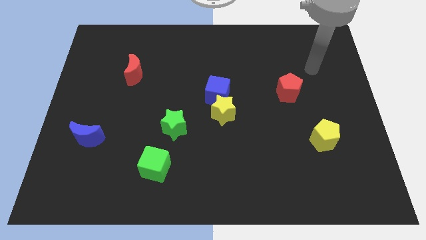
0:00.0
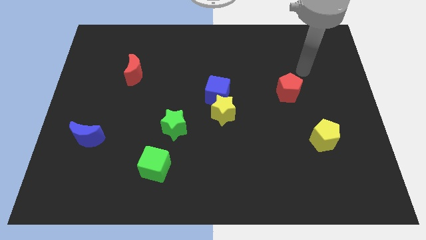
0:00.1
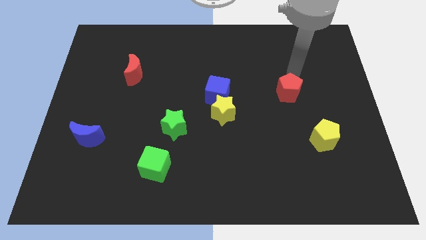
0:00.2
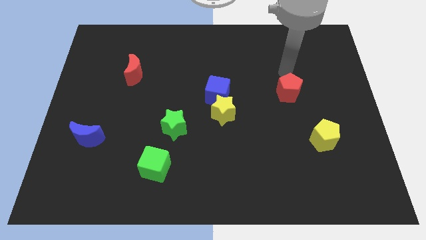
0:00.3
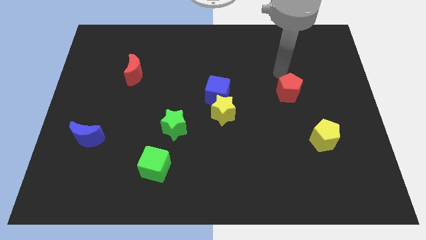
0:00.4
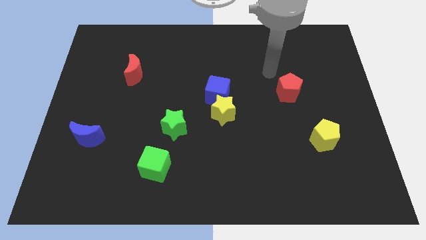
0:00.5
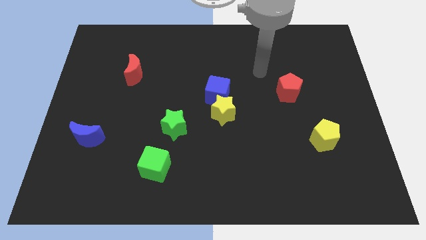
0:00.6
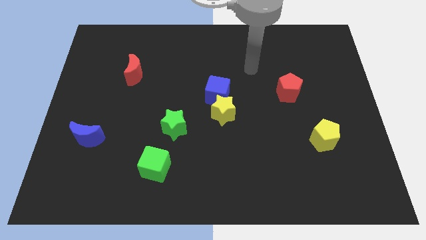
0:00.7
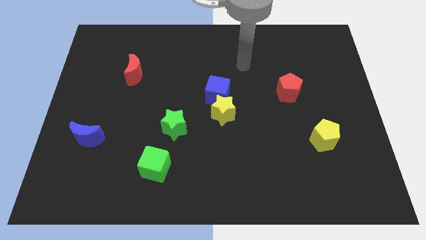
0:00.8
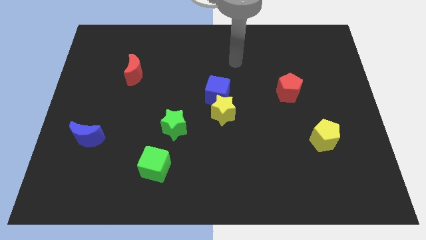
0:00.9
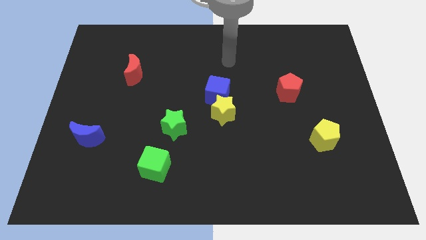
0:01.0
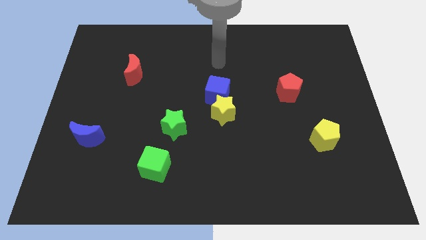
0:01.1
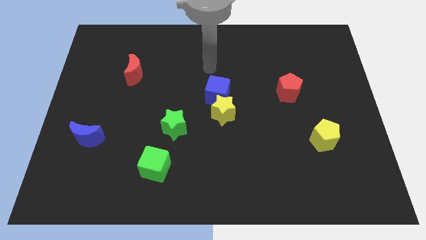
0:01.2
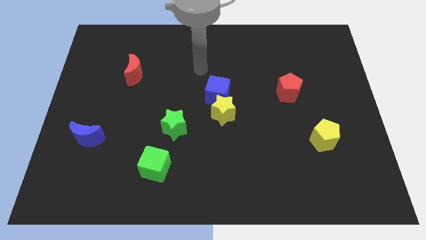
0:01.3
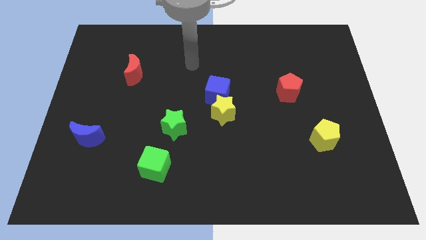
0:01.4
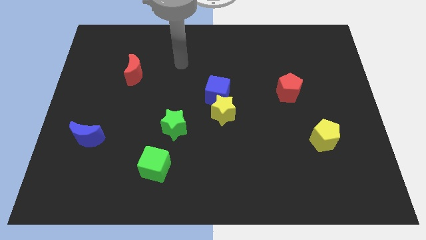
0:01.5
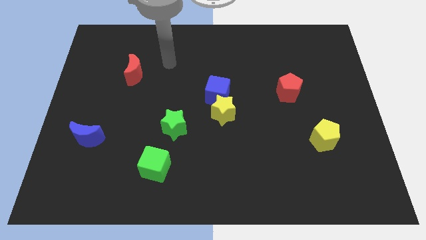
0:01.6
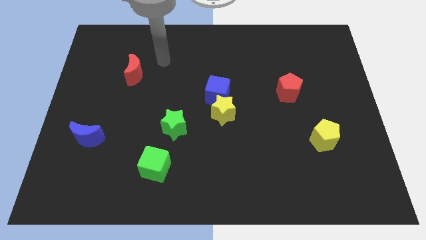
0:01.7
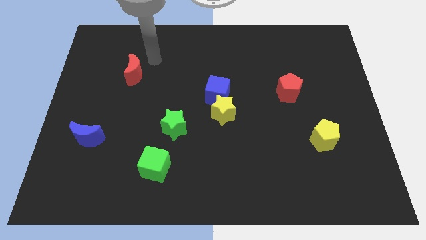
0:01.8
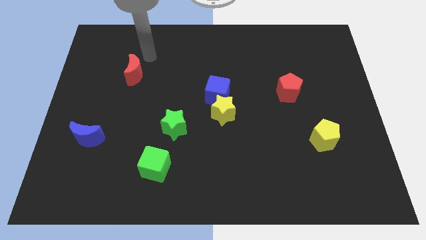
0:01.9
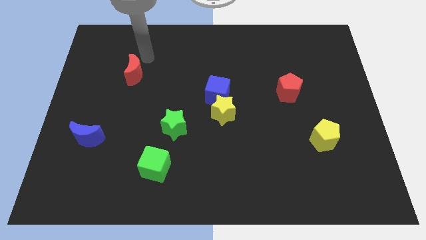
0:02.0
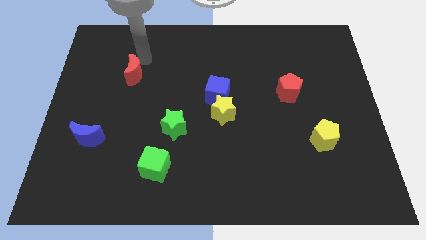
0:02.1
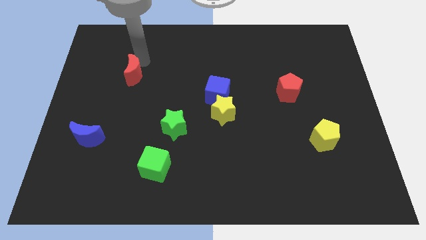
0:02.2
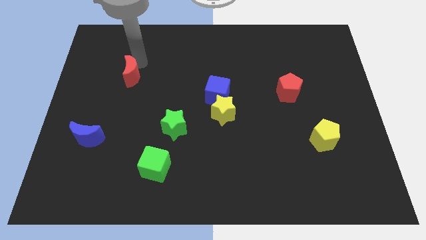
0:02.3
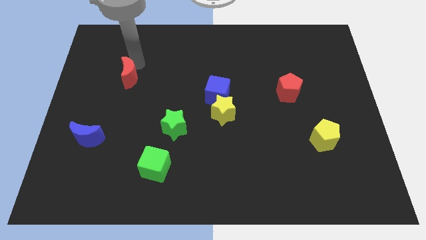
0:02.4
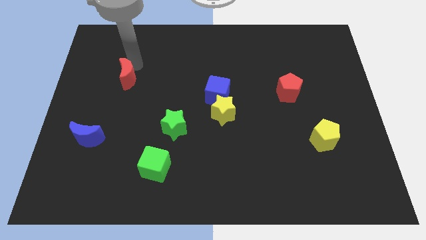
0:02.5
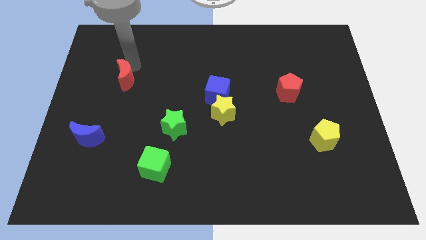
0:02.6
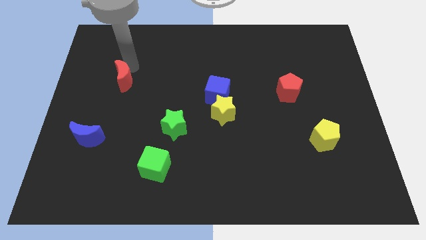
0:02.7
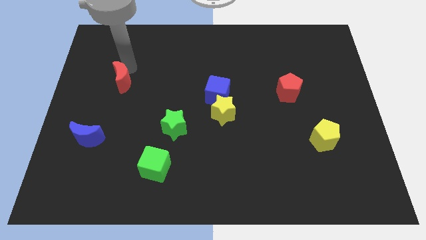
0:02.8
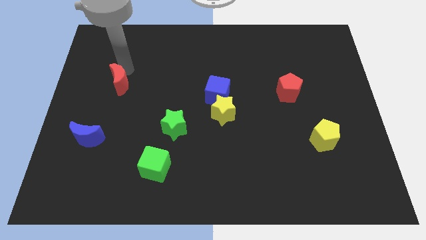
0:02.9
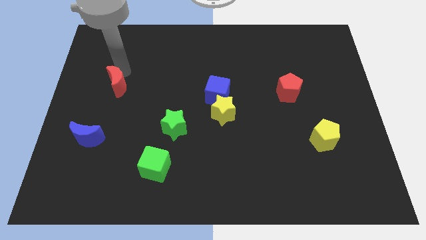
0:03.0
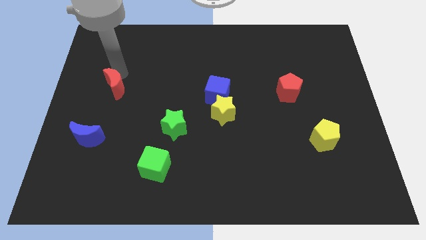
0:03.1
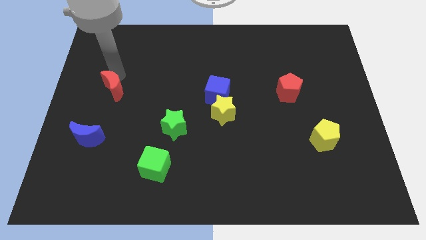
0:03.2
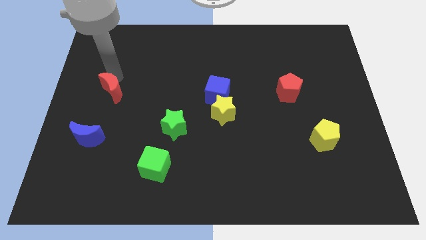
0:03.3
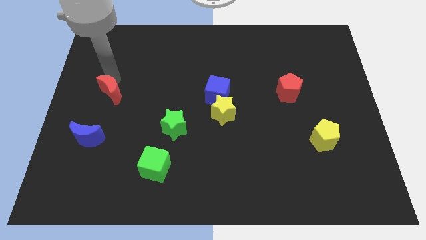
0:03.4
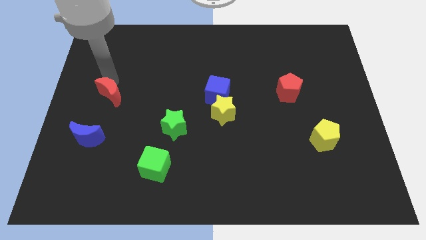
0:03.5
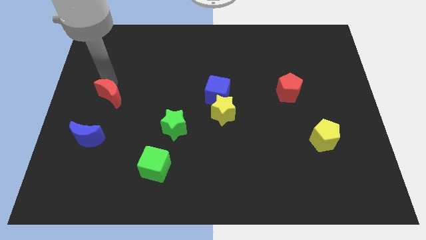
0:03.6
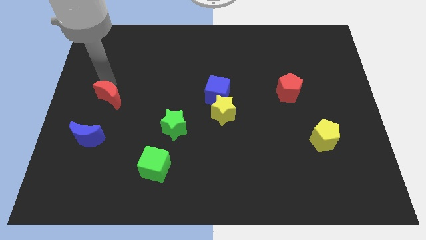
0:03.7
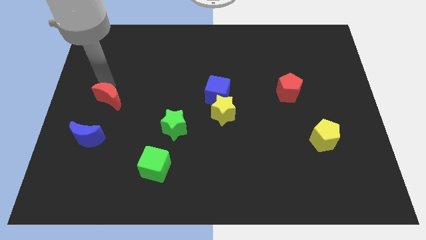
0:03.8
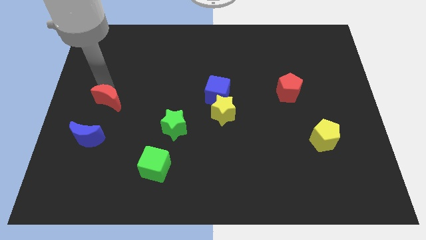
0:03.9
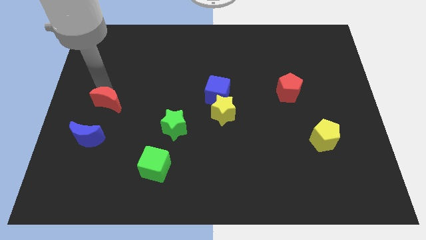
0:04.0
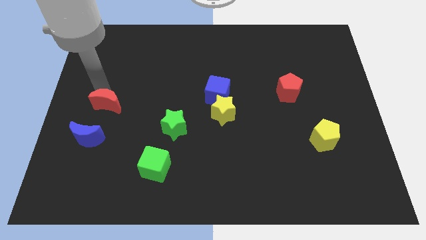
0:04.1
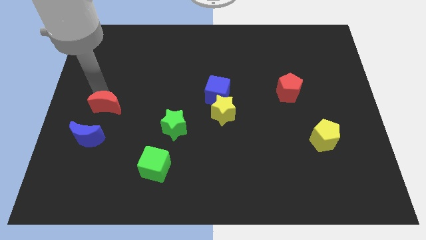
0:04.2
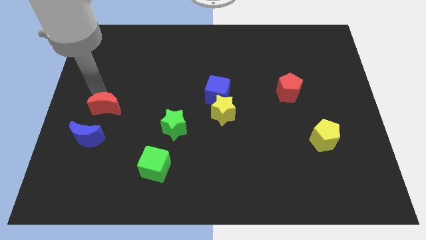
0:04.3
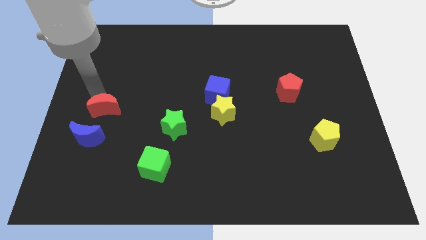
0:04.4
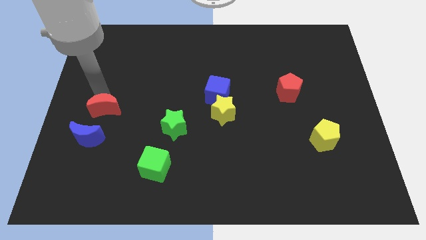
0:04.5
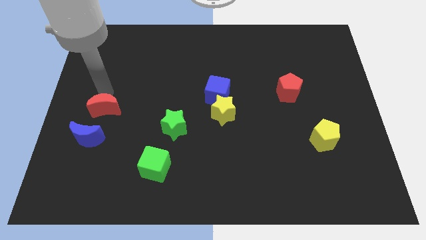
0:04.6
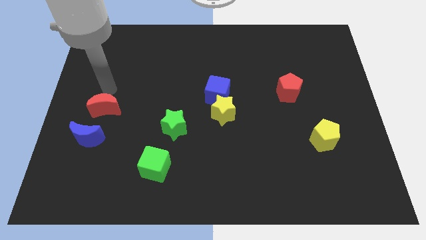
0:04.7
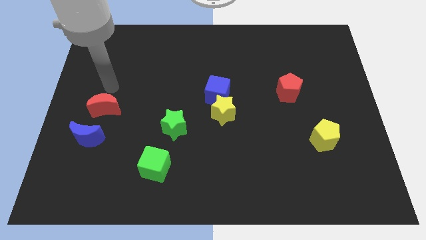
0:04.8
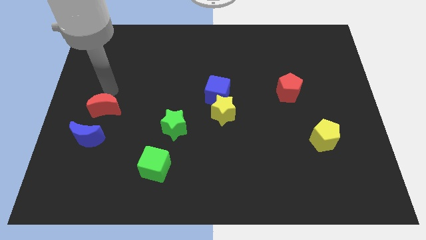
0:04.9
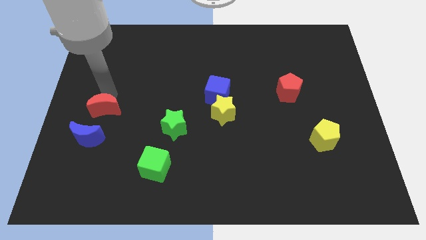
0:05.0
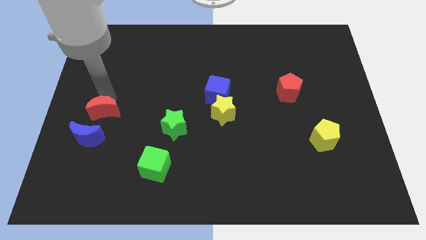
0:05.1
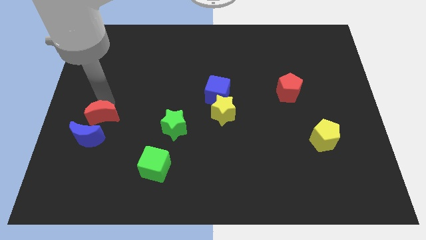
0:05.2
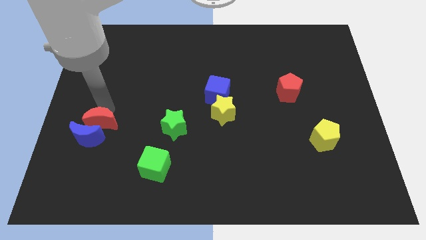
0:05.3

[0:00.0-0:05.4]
put the red moon towards the blue moon

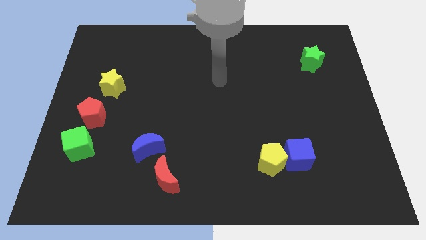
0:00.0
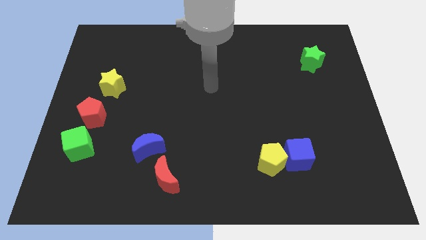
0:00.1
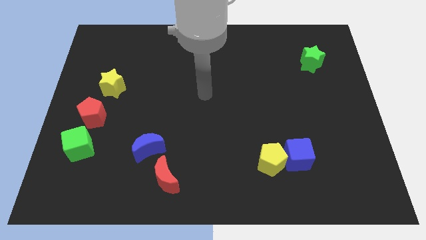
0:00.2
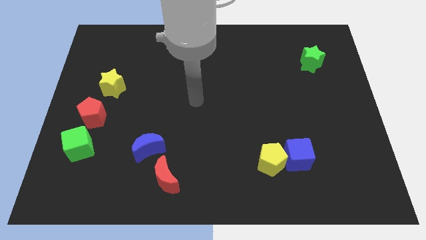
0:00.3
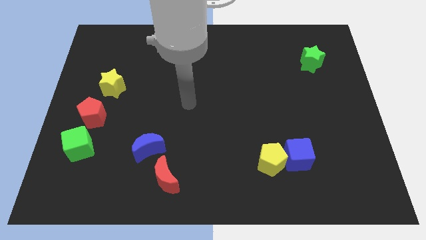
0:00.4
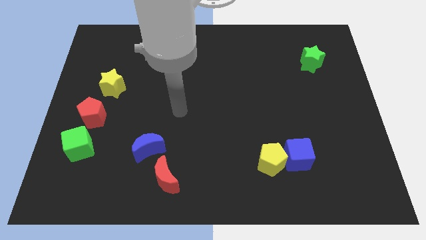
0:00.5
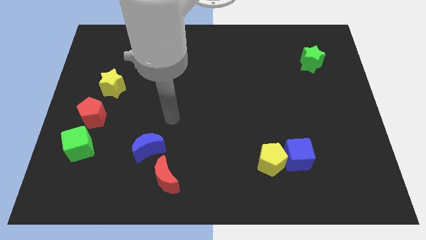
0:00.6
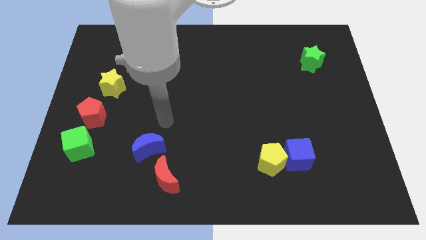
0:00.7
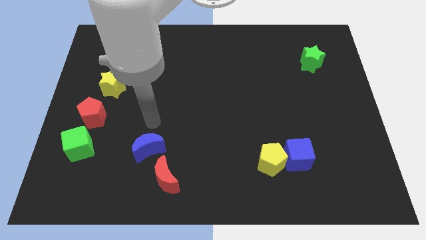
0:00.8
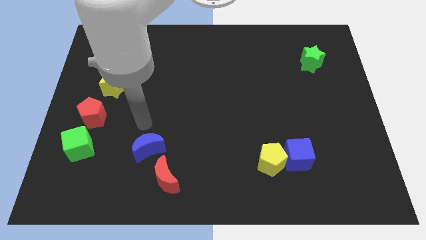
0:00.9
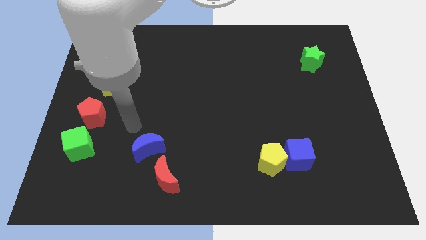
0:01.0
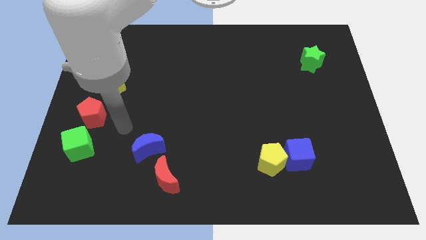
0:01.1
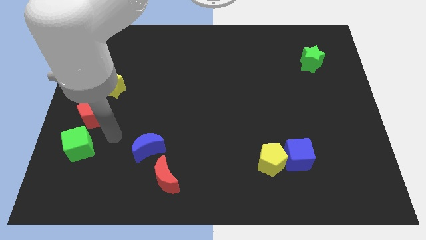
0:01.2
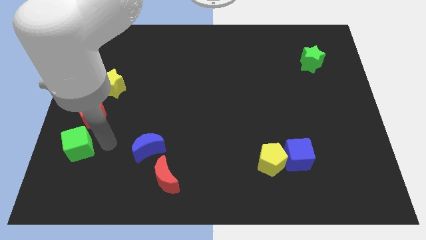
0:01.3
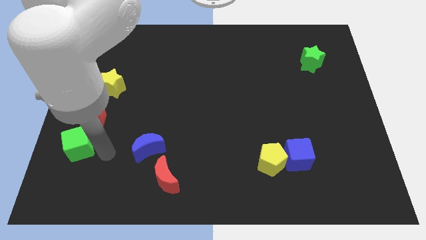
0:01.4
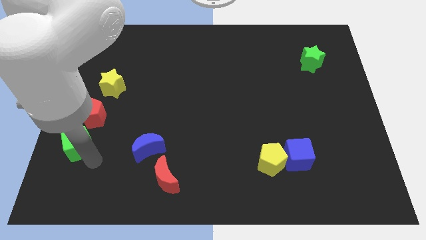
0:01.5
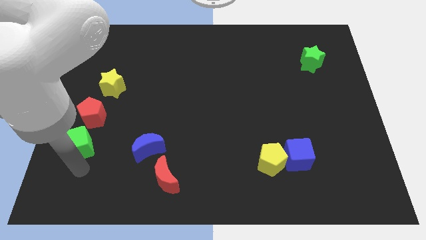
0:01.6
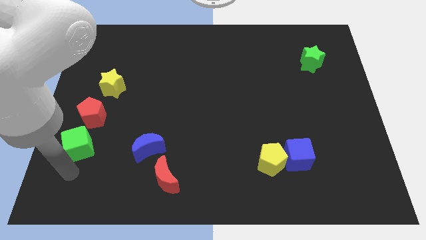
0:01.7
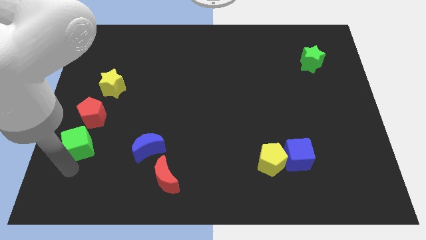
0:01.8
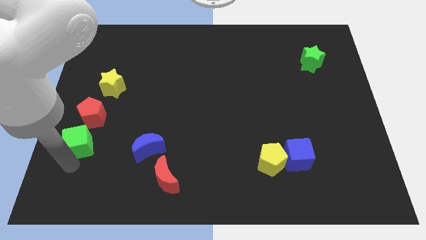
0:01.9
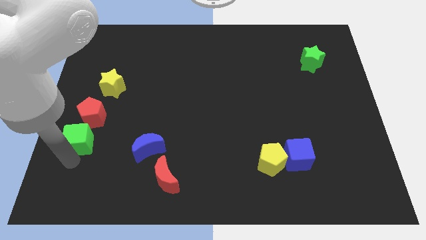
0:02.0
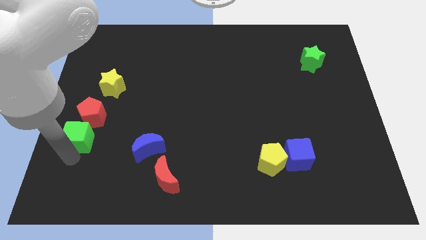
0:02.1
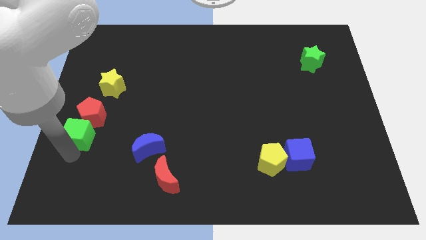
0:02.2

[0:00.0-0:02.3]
slide the green cube next to the red pentagon
